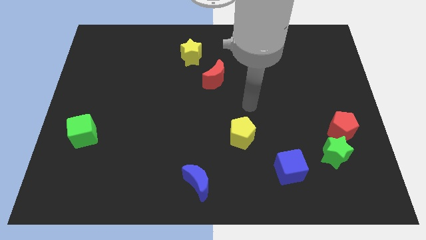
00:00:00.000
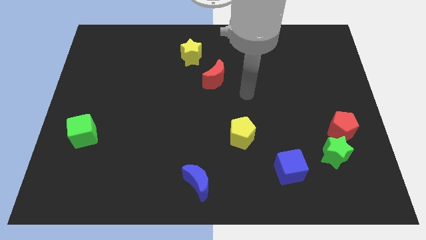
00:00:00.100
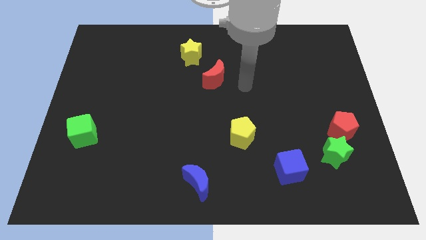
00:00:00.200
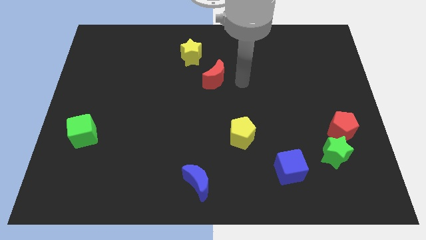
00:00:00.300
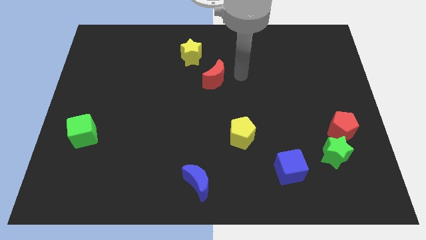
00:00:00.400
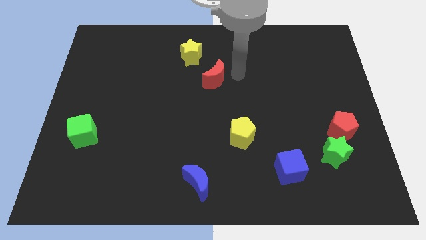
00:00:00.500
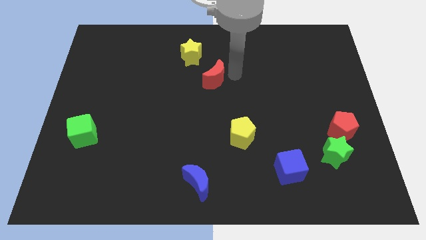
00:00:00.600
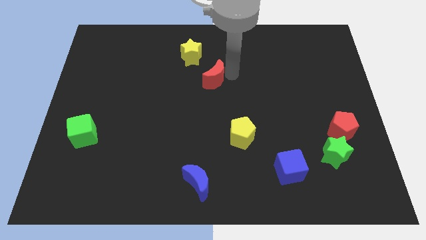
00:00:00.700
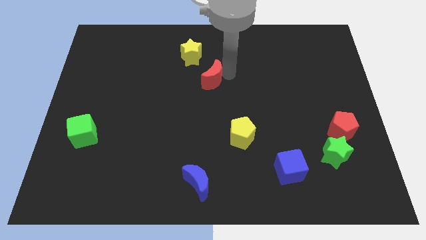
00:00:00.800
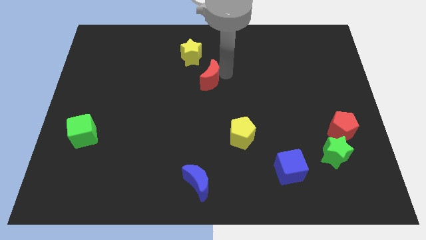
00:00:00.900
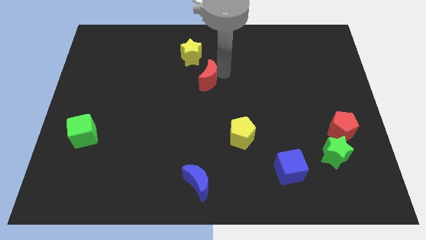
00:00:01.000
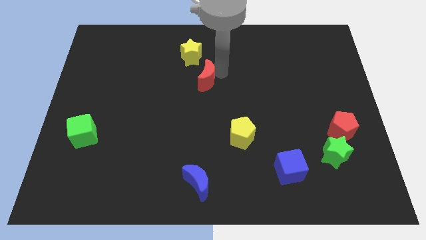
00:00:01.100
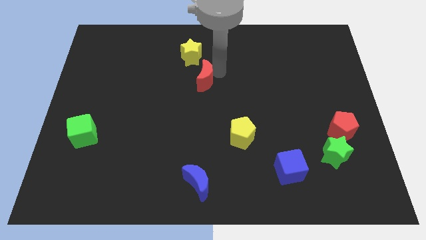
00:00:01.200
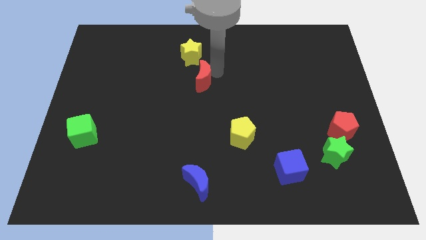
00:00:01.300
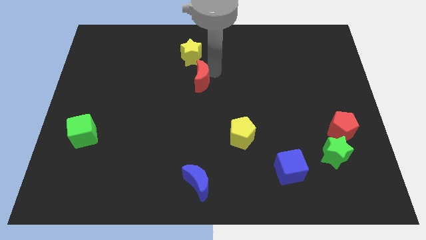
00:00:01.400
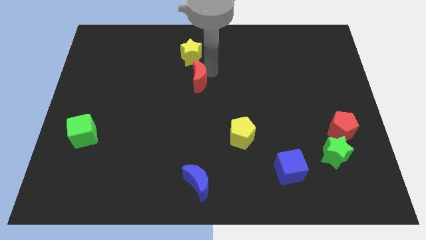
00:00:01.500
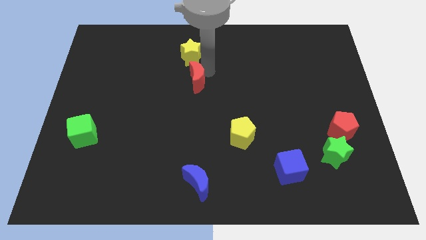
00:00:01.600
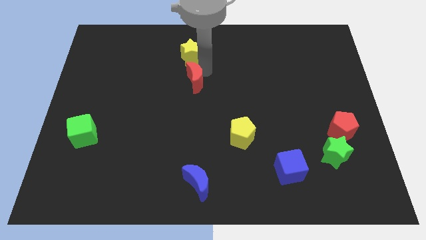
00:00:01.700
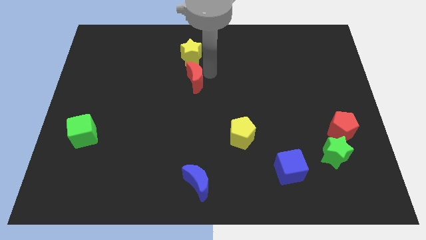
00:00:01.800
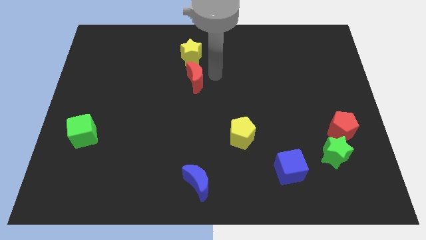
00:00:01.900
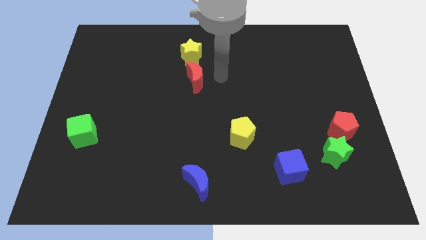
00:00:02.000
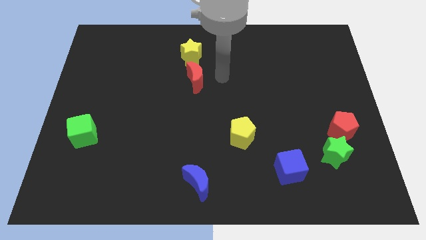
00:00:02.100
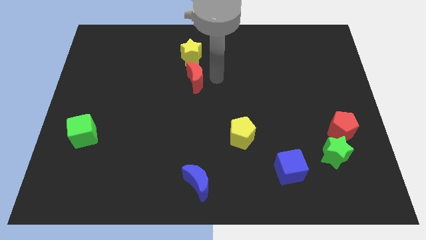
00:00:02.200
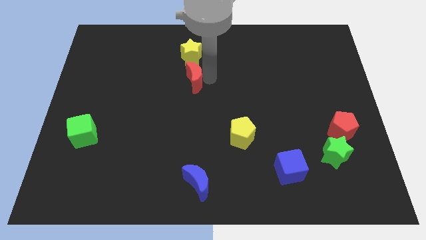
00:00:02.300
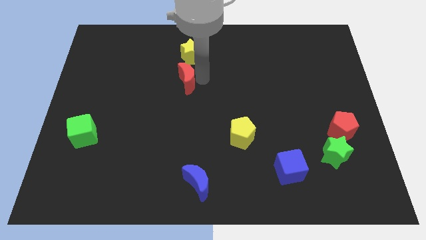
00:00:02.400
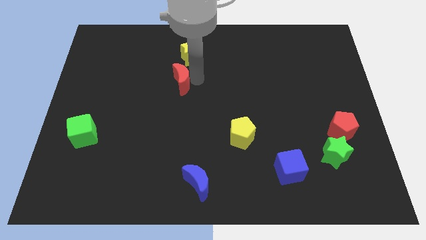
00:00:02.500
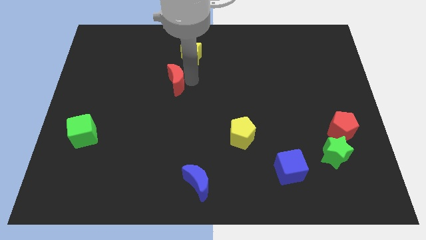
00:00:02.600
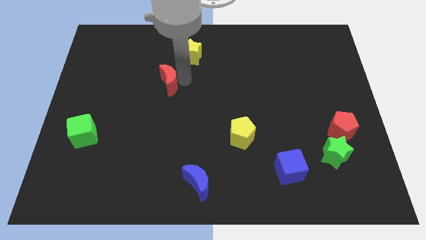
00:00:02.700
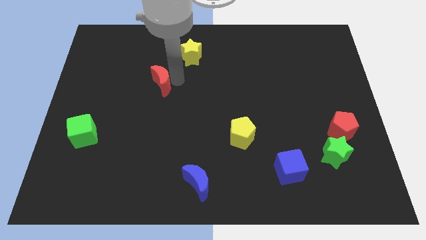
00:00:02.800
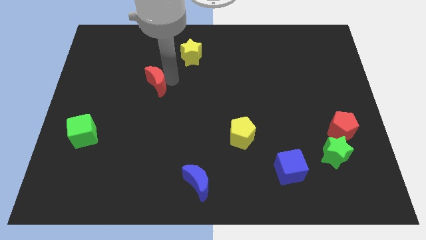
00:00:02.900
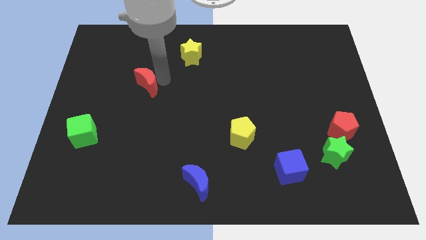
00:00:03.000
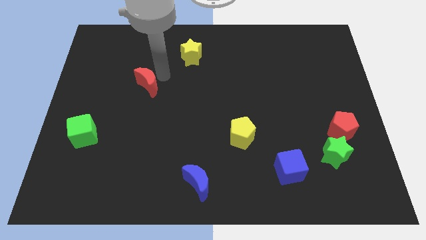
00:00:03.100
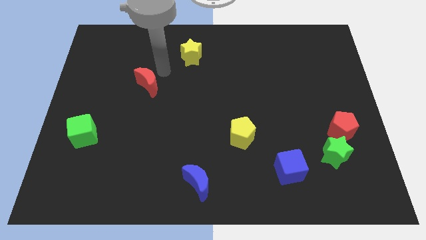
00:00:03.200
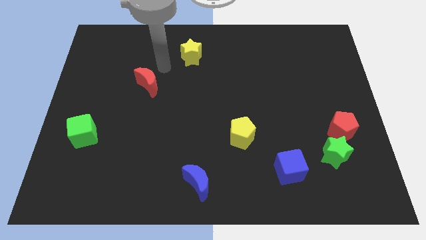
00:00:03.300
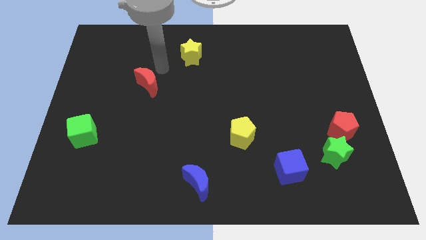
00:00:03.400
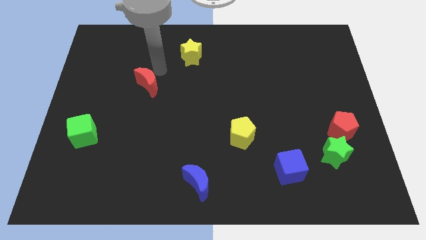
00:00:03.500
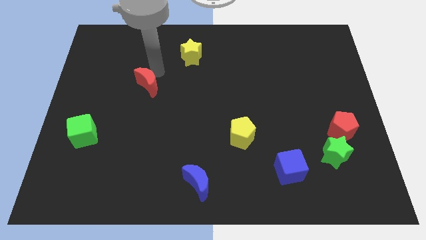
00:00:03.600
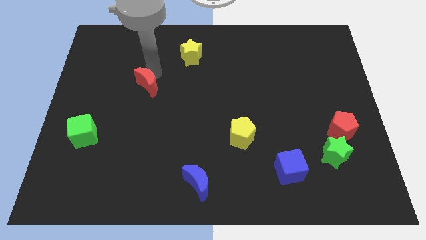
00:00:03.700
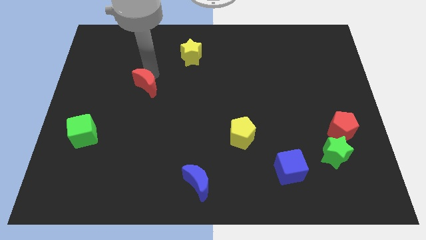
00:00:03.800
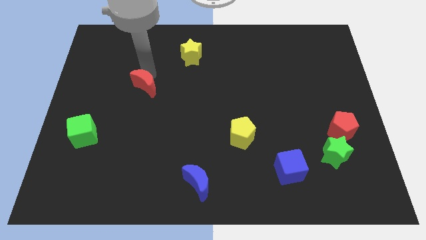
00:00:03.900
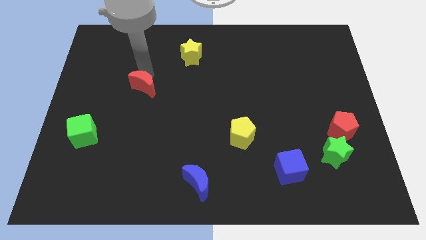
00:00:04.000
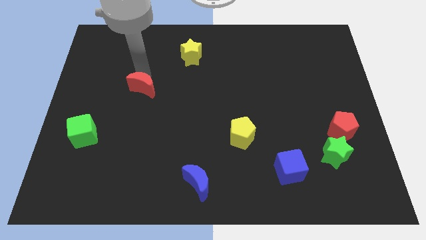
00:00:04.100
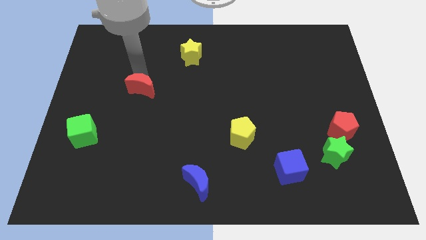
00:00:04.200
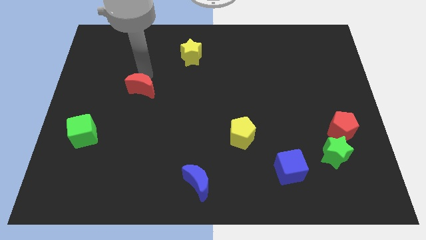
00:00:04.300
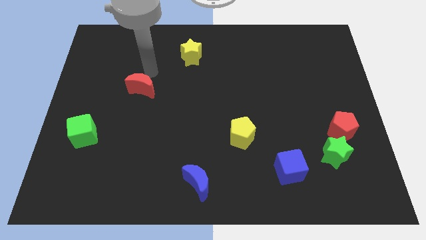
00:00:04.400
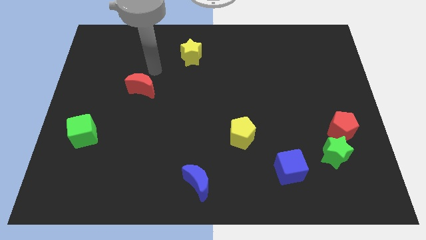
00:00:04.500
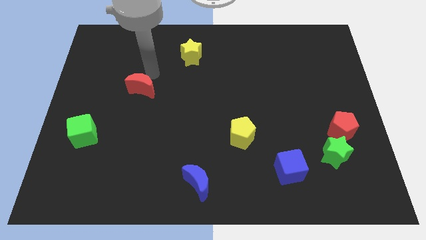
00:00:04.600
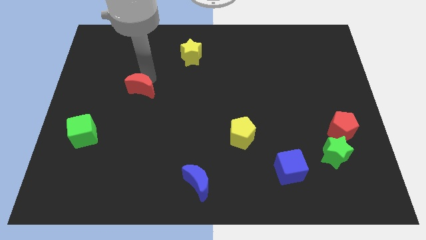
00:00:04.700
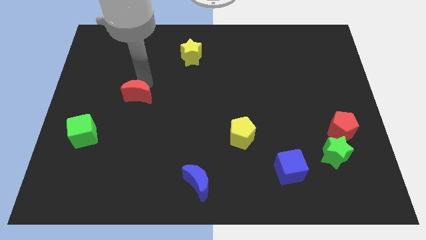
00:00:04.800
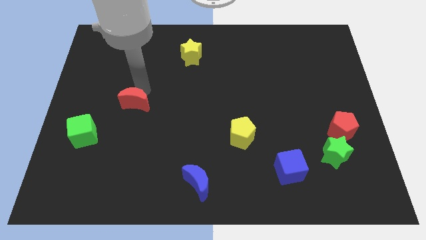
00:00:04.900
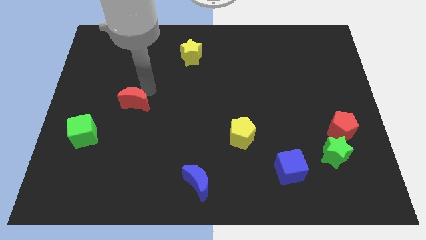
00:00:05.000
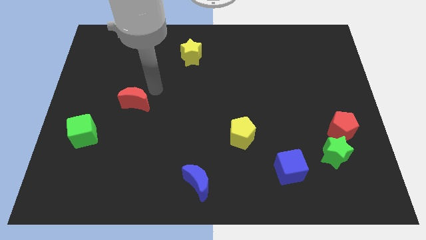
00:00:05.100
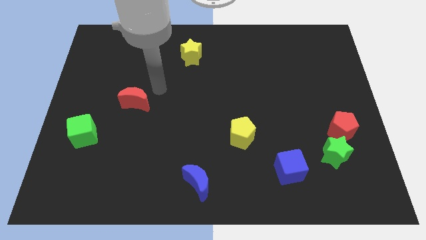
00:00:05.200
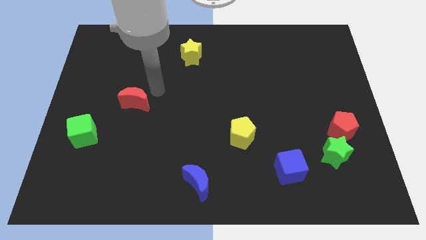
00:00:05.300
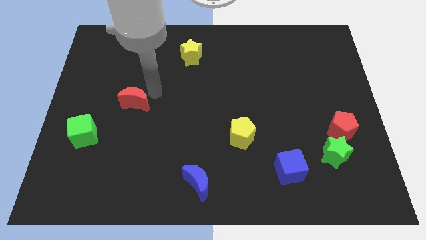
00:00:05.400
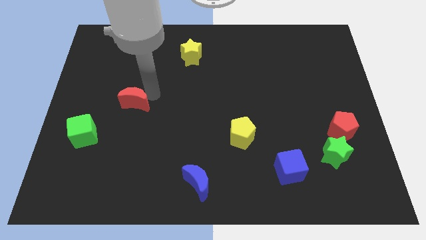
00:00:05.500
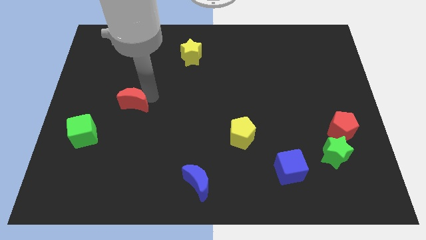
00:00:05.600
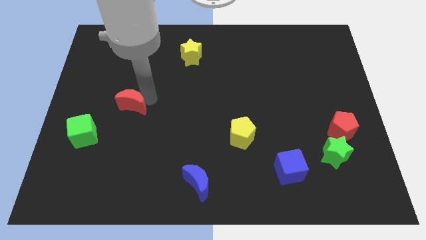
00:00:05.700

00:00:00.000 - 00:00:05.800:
move the red moon to the top right of the green cube

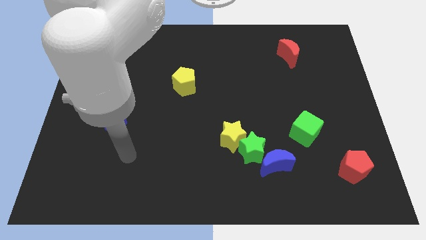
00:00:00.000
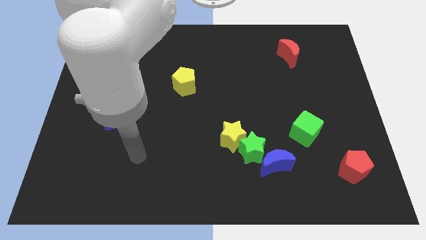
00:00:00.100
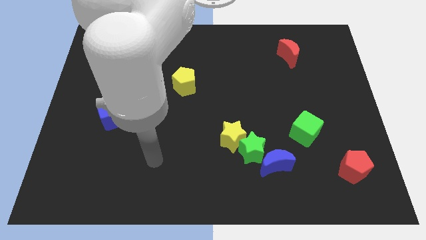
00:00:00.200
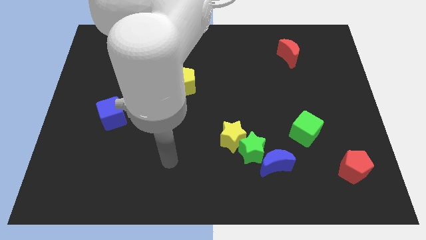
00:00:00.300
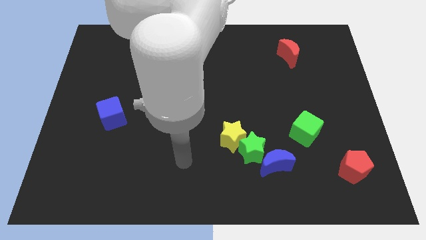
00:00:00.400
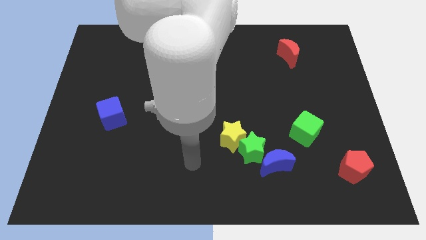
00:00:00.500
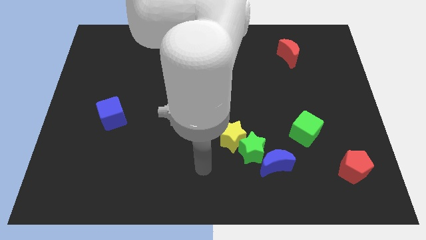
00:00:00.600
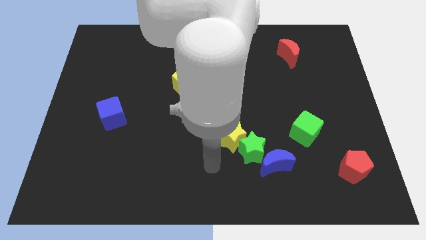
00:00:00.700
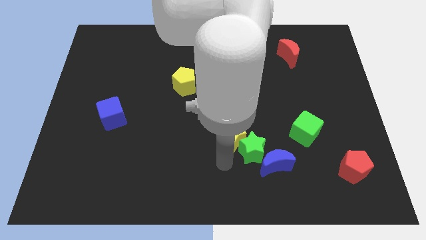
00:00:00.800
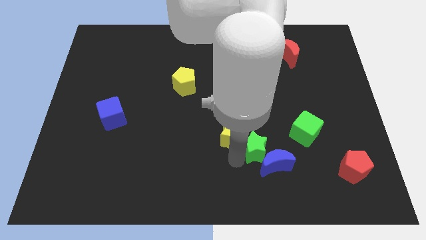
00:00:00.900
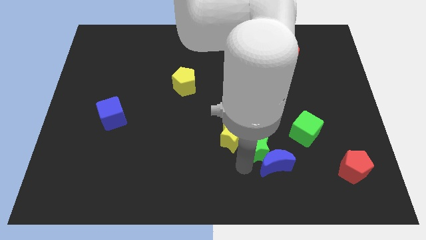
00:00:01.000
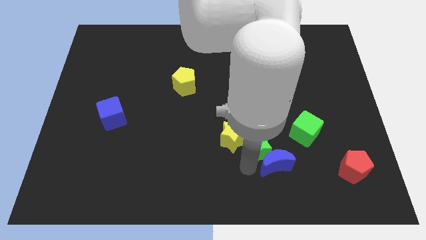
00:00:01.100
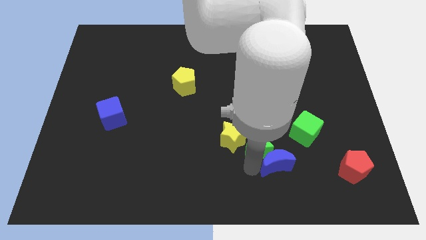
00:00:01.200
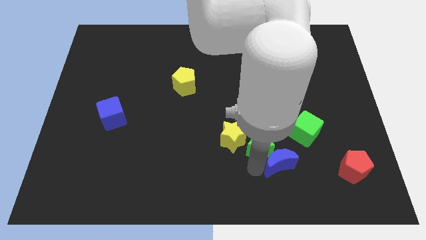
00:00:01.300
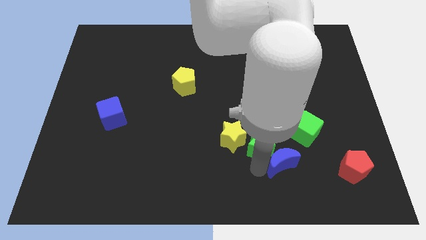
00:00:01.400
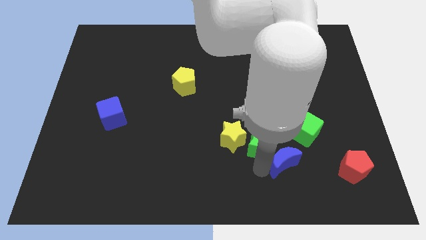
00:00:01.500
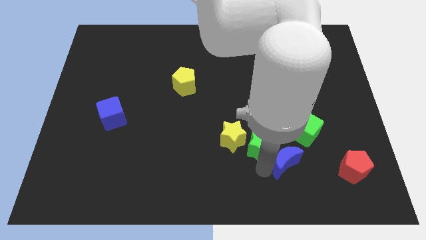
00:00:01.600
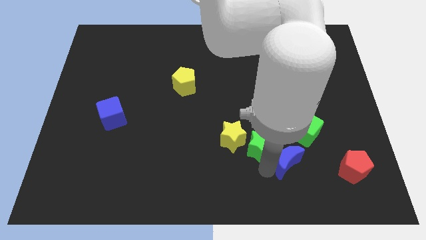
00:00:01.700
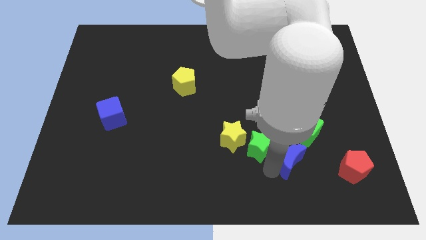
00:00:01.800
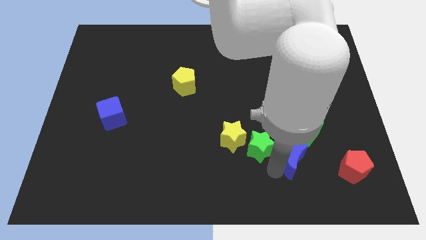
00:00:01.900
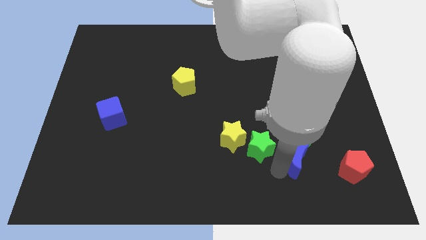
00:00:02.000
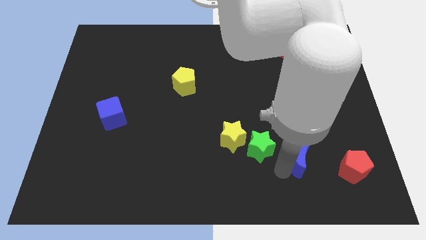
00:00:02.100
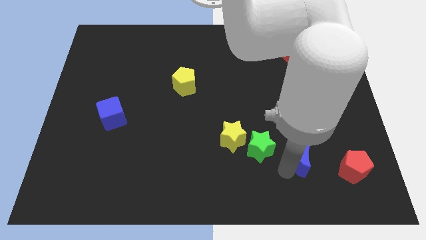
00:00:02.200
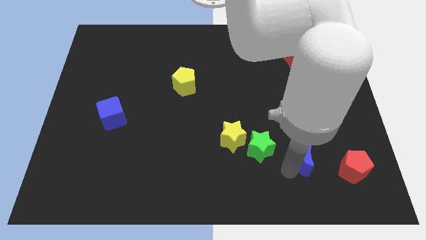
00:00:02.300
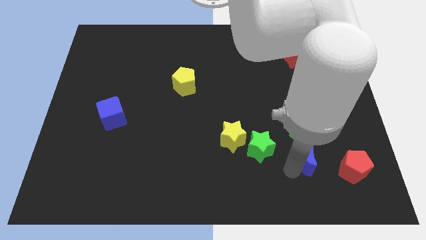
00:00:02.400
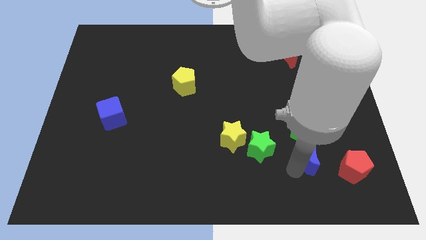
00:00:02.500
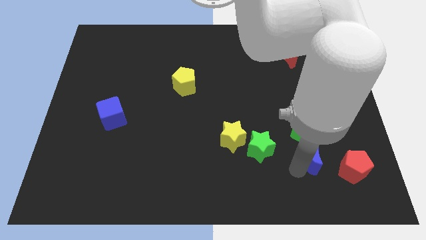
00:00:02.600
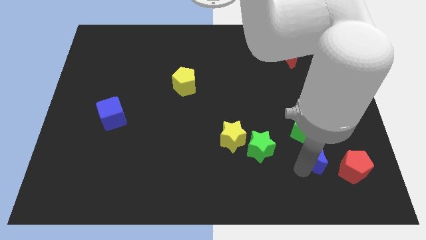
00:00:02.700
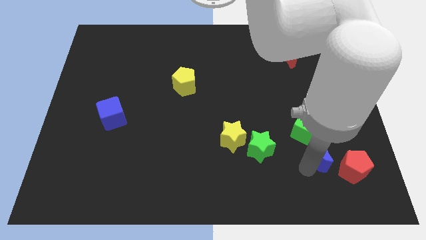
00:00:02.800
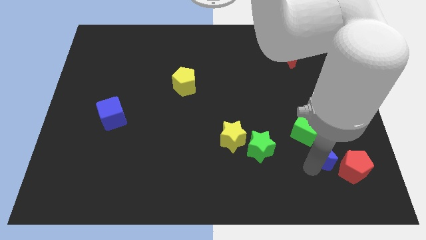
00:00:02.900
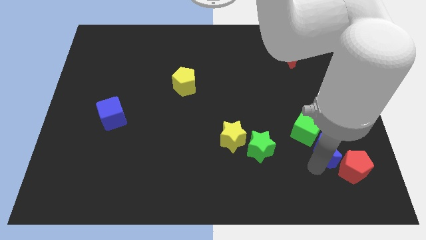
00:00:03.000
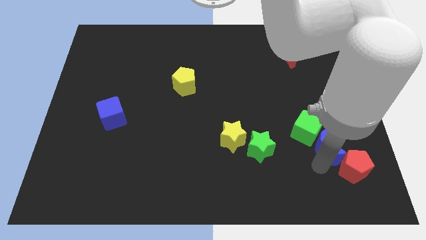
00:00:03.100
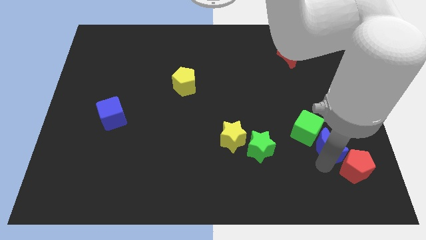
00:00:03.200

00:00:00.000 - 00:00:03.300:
put the blue moon to the top of the red pentagon
